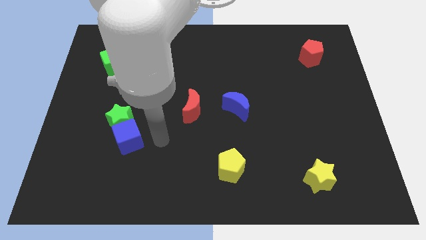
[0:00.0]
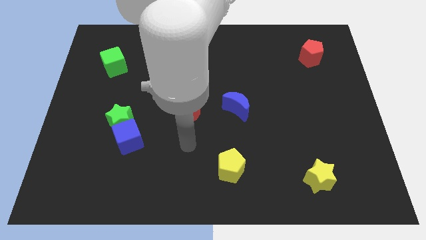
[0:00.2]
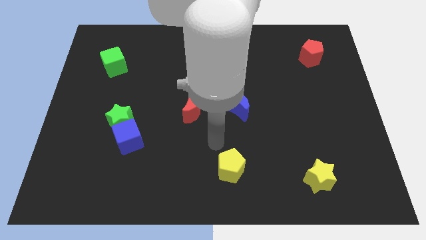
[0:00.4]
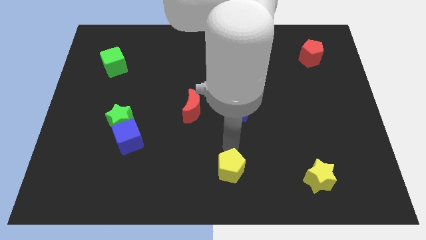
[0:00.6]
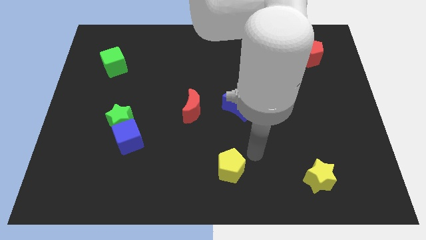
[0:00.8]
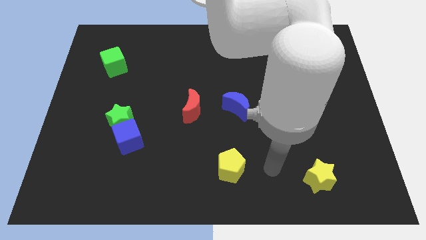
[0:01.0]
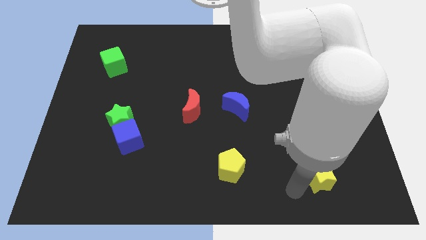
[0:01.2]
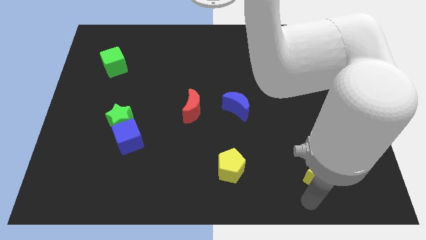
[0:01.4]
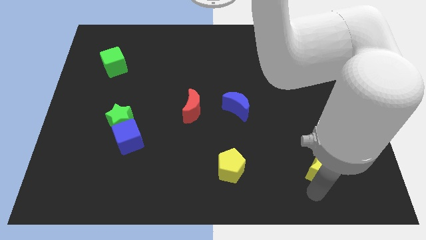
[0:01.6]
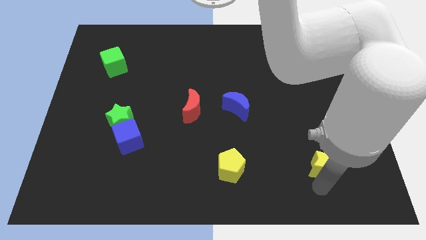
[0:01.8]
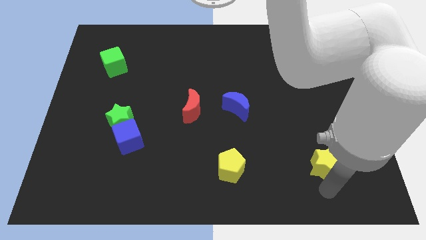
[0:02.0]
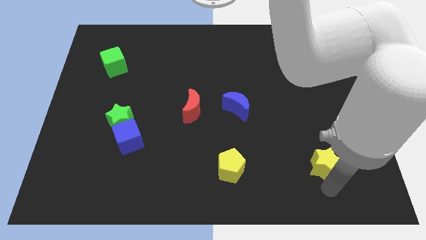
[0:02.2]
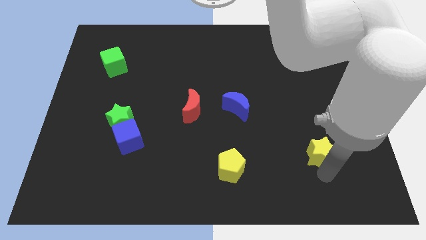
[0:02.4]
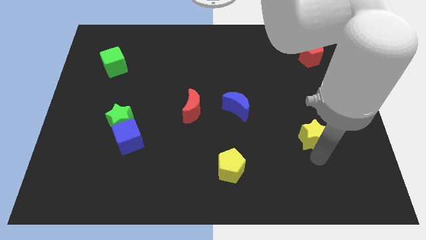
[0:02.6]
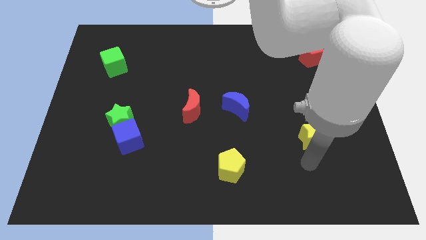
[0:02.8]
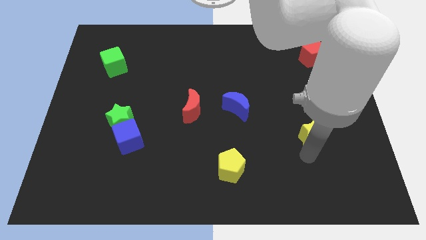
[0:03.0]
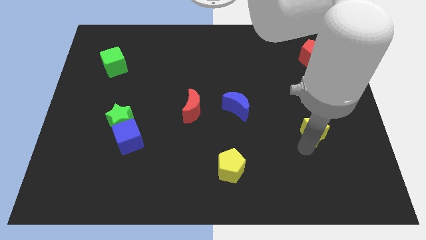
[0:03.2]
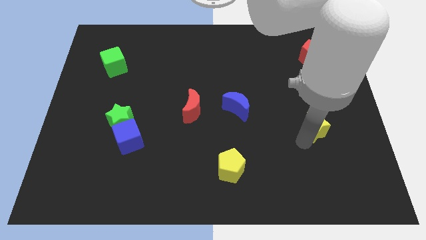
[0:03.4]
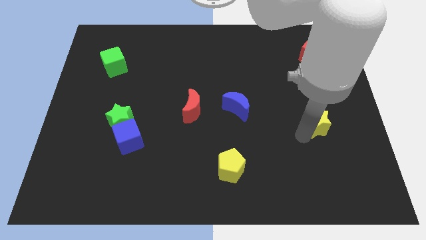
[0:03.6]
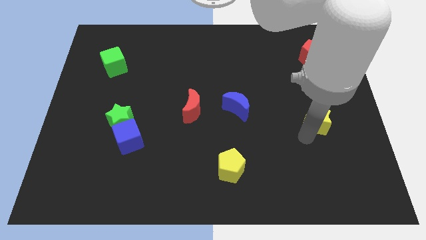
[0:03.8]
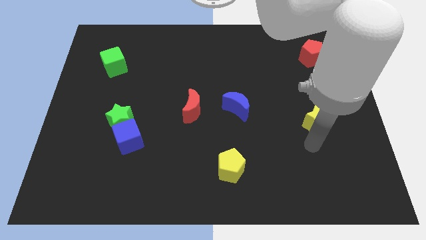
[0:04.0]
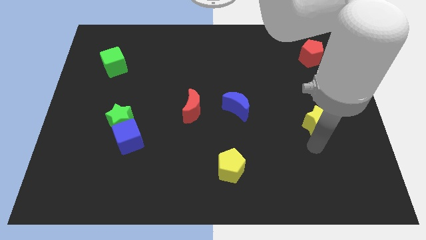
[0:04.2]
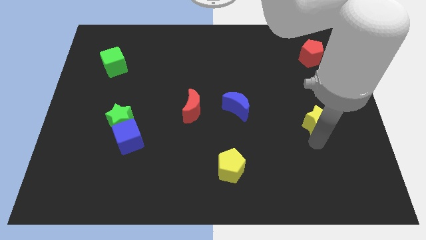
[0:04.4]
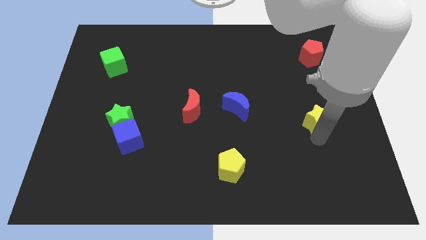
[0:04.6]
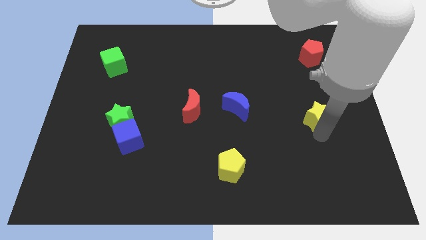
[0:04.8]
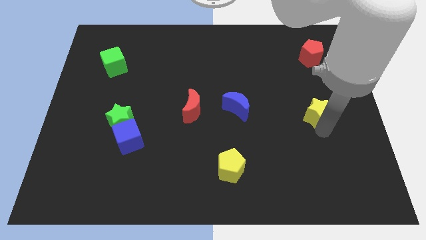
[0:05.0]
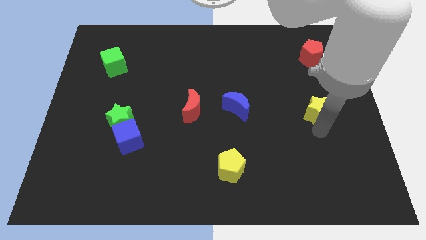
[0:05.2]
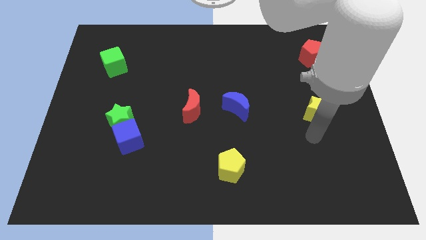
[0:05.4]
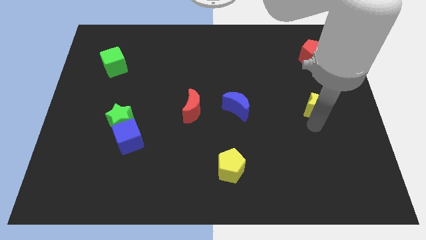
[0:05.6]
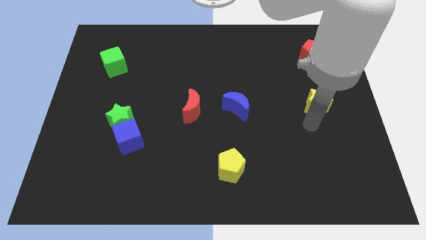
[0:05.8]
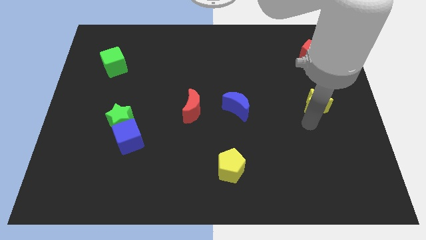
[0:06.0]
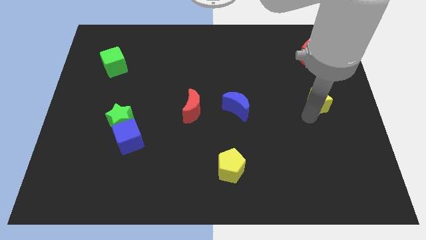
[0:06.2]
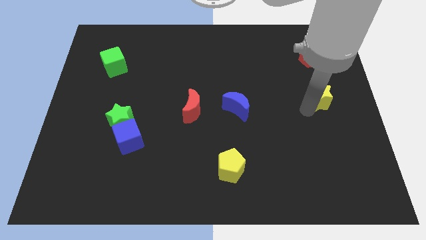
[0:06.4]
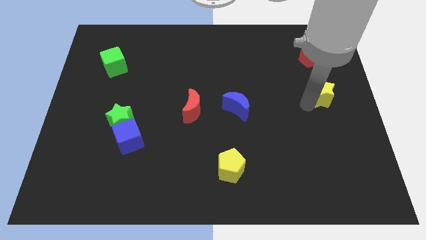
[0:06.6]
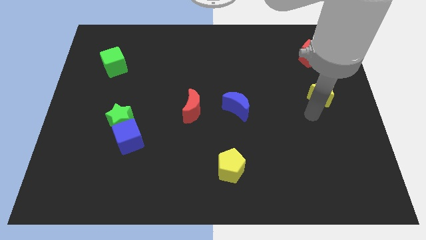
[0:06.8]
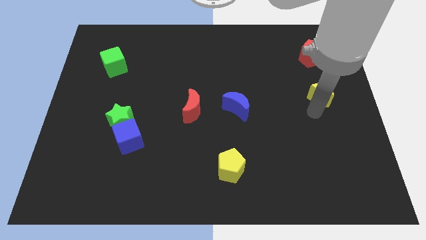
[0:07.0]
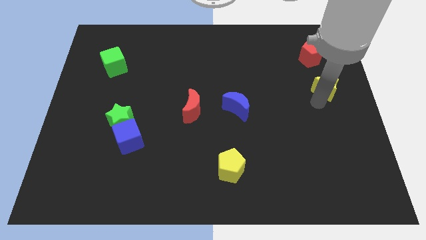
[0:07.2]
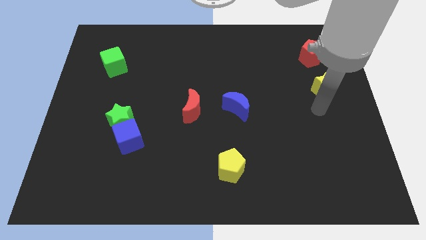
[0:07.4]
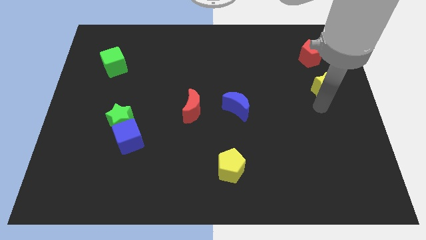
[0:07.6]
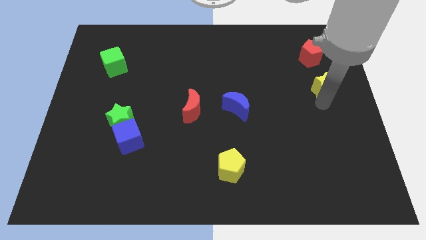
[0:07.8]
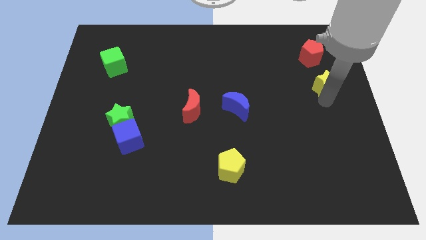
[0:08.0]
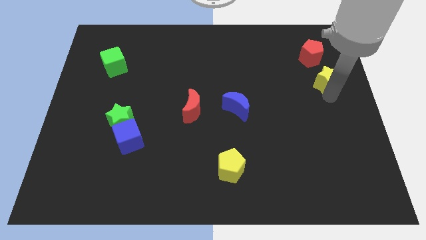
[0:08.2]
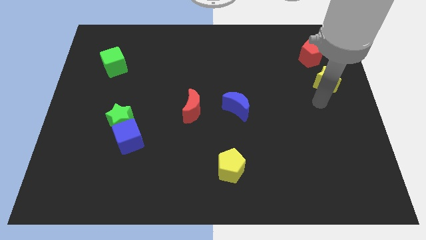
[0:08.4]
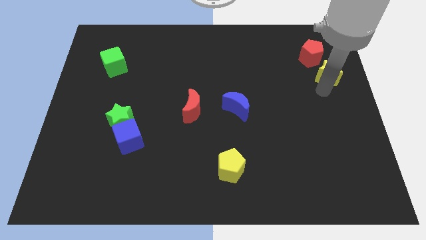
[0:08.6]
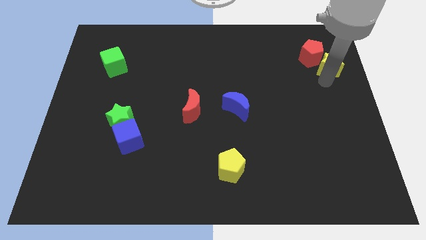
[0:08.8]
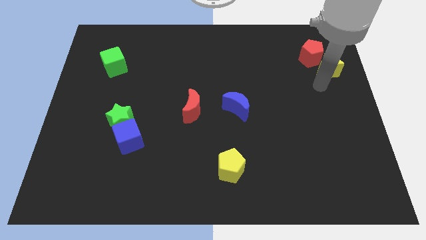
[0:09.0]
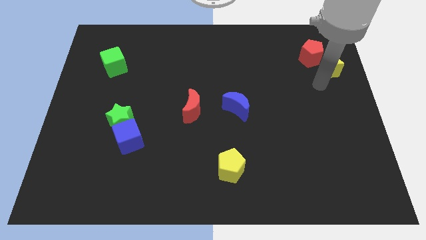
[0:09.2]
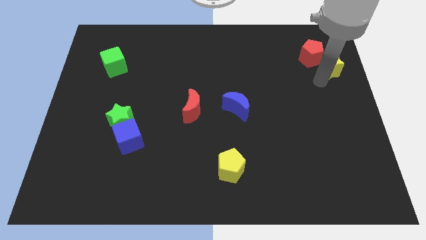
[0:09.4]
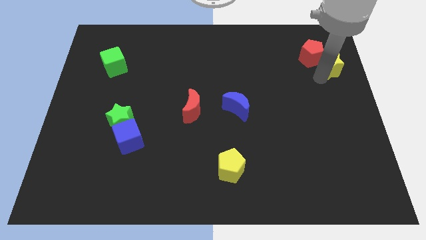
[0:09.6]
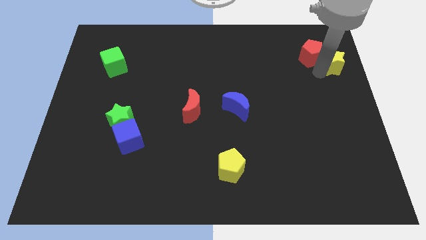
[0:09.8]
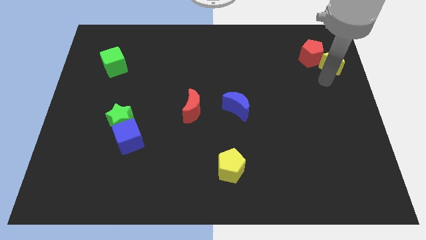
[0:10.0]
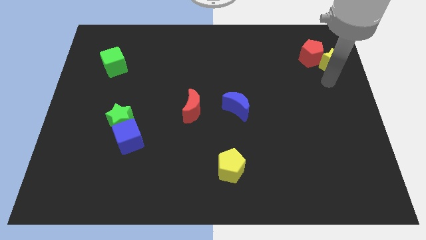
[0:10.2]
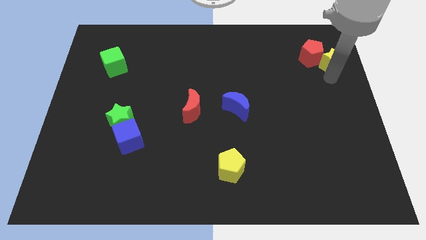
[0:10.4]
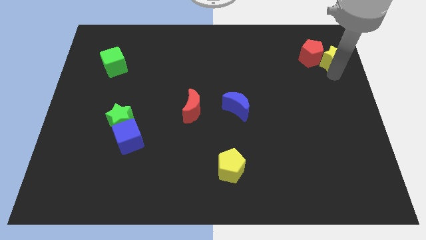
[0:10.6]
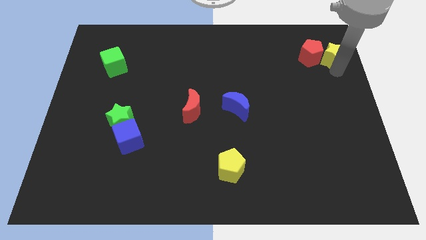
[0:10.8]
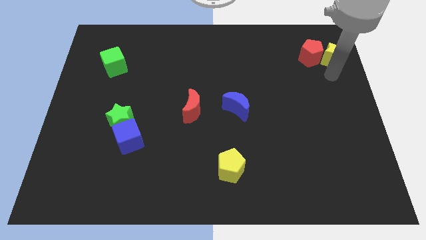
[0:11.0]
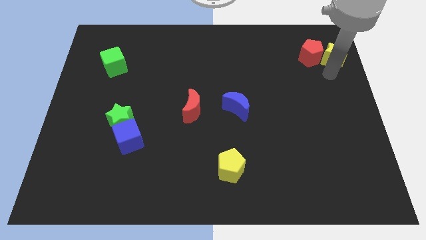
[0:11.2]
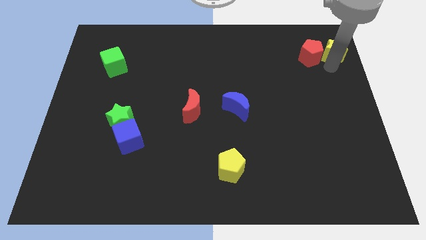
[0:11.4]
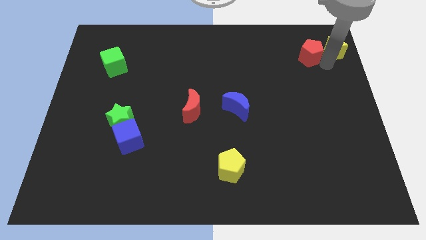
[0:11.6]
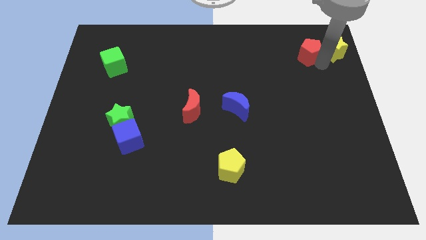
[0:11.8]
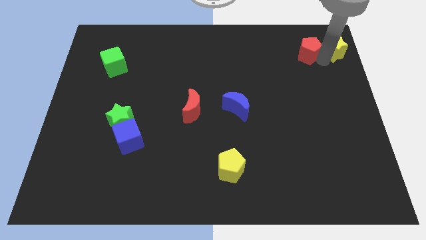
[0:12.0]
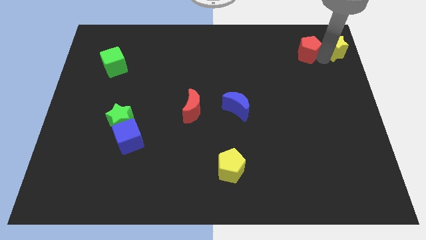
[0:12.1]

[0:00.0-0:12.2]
put the yellow star to the top right

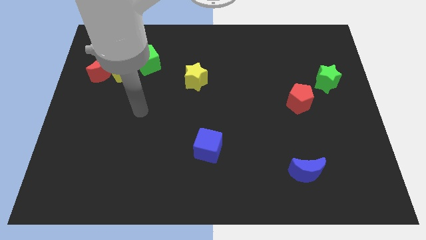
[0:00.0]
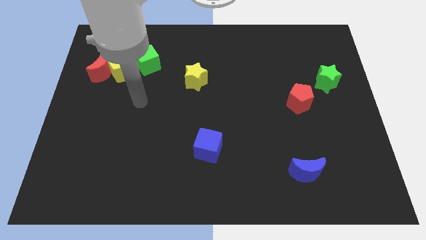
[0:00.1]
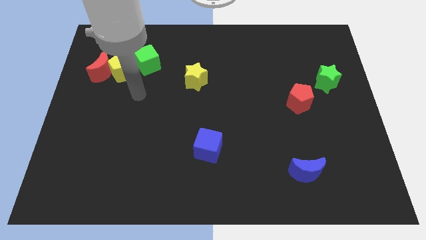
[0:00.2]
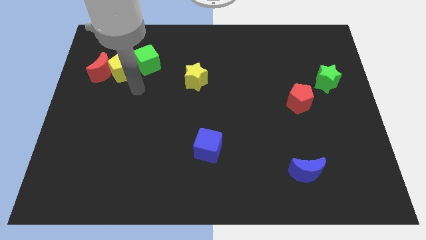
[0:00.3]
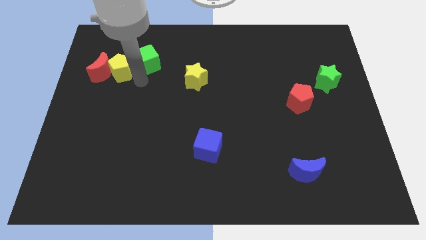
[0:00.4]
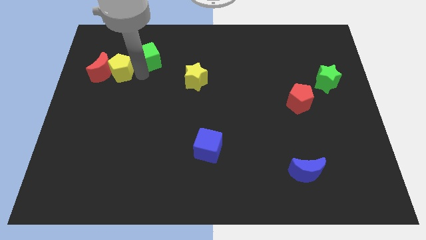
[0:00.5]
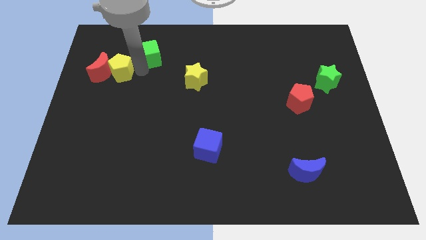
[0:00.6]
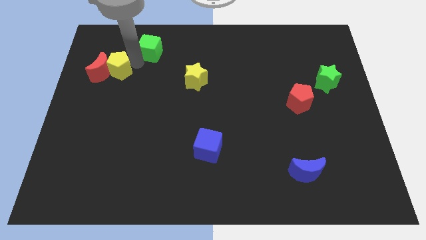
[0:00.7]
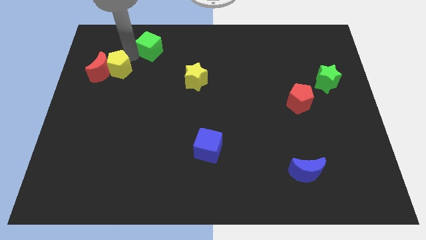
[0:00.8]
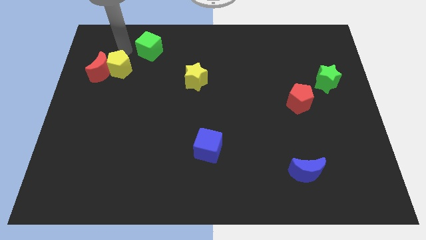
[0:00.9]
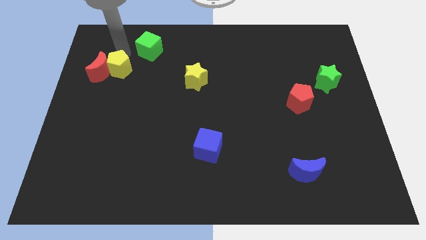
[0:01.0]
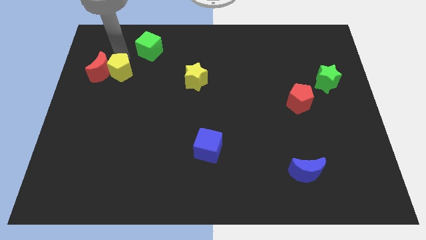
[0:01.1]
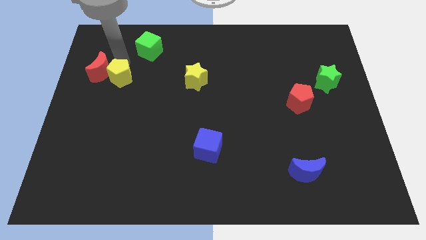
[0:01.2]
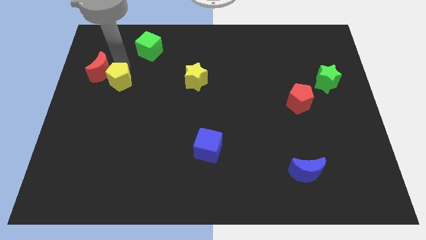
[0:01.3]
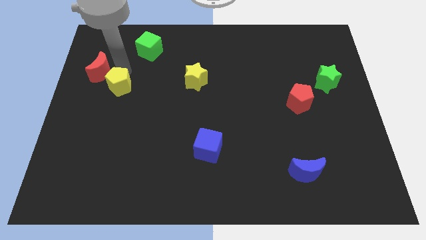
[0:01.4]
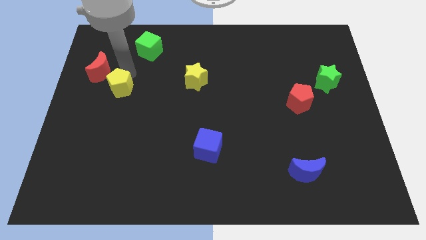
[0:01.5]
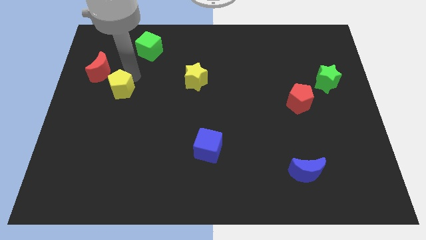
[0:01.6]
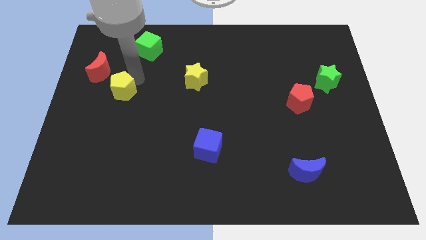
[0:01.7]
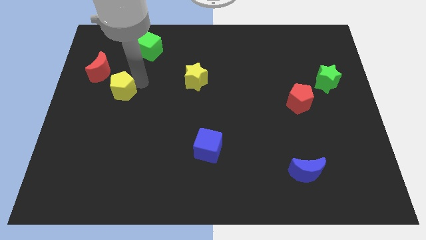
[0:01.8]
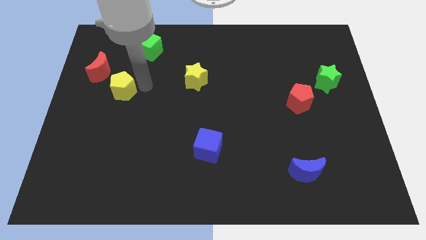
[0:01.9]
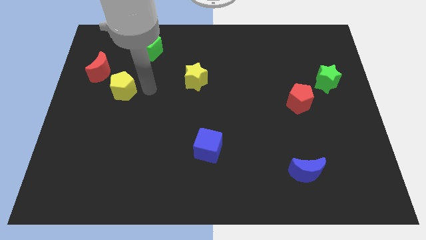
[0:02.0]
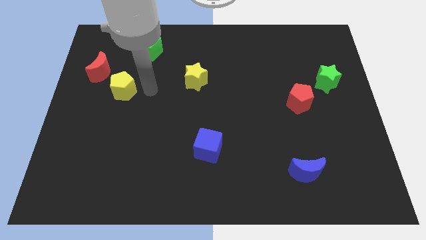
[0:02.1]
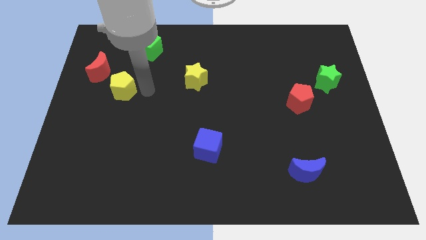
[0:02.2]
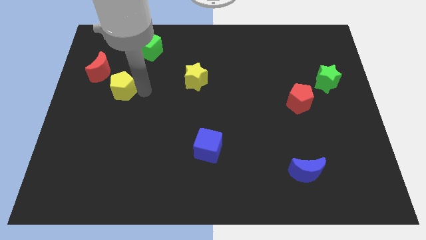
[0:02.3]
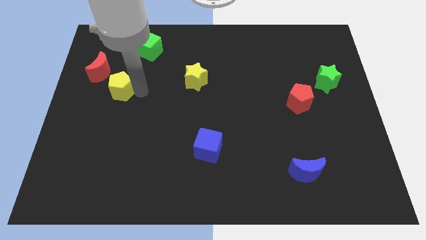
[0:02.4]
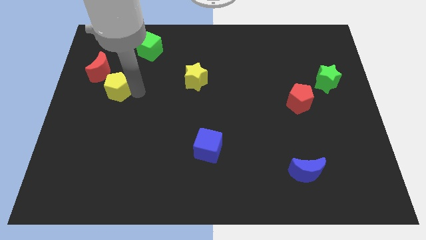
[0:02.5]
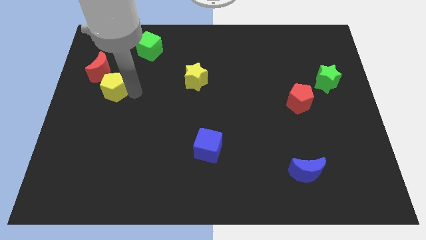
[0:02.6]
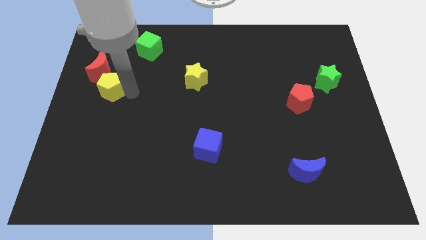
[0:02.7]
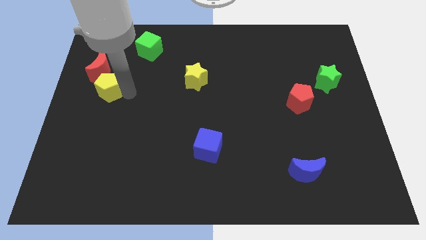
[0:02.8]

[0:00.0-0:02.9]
move the yellow pentagon to the left side
